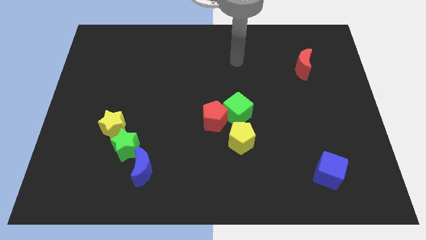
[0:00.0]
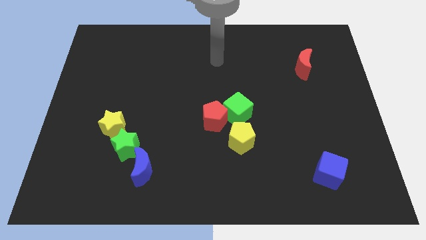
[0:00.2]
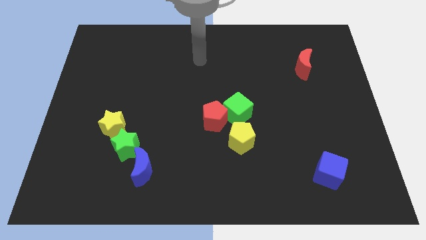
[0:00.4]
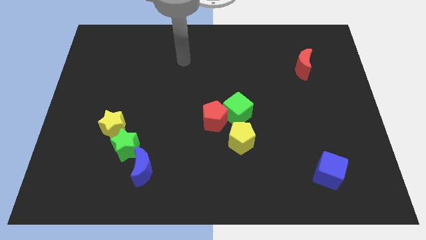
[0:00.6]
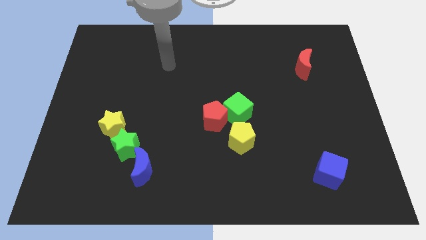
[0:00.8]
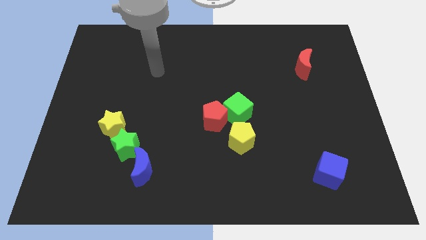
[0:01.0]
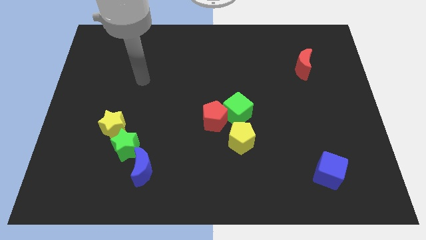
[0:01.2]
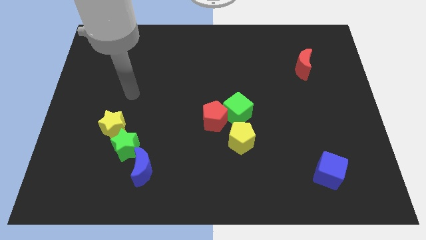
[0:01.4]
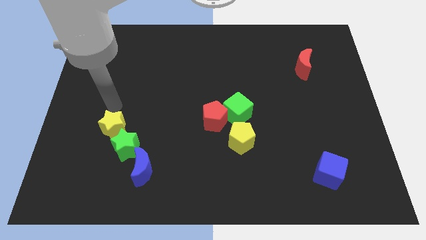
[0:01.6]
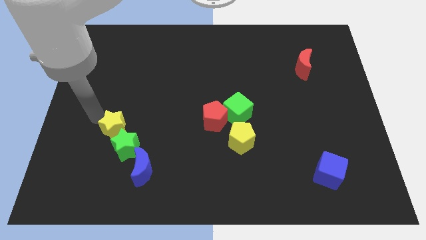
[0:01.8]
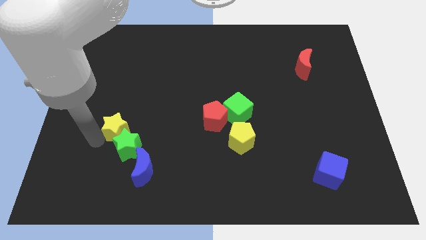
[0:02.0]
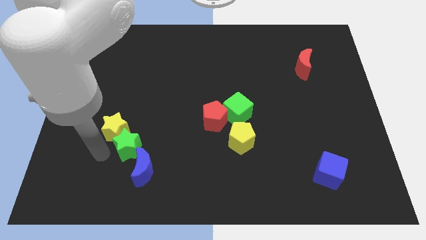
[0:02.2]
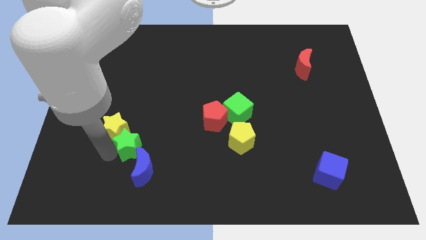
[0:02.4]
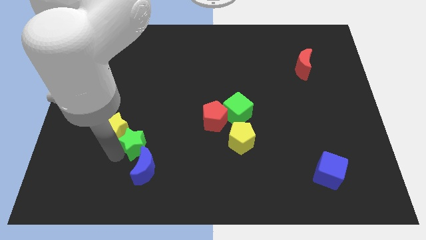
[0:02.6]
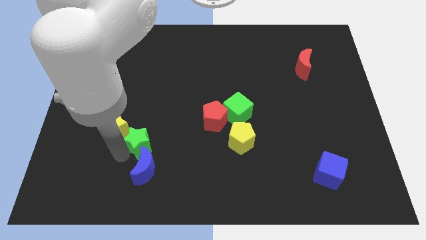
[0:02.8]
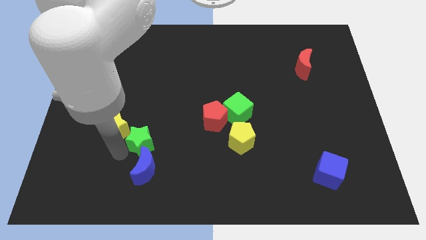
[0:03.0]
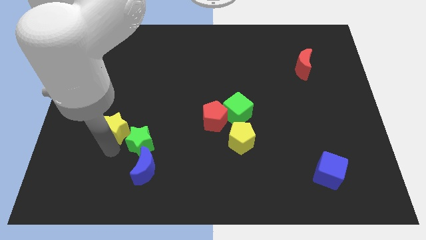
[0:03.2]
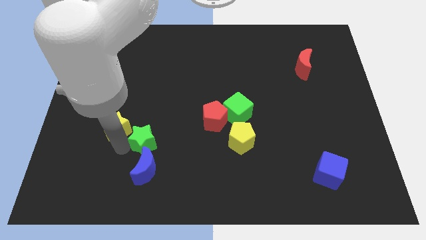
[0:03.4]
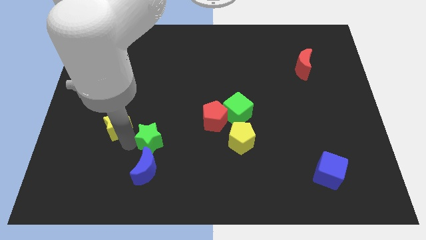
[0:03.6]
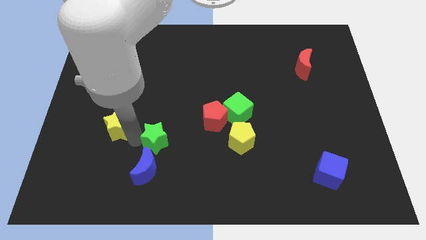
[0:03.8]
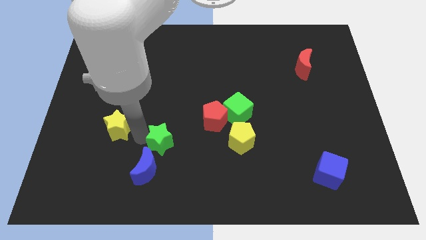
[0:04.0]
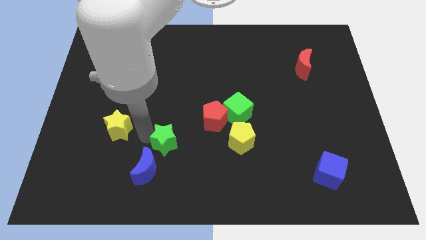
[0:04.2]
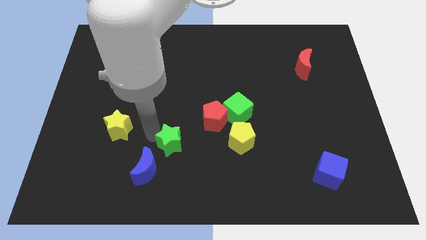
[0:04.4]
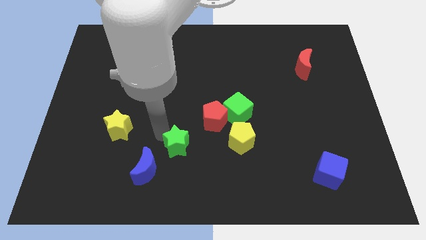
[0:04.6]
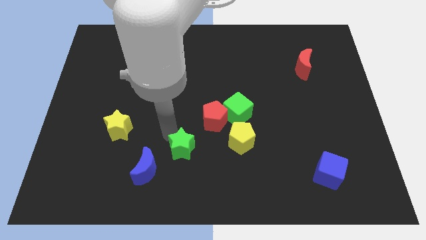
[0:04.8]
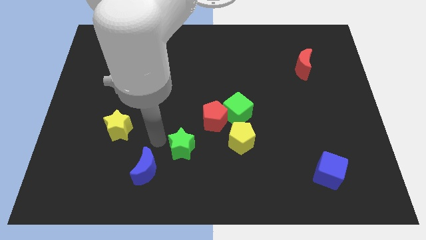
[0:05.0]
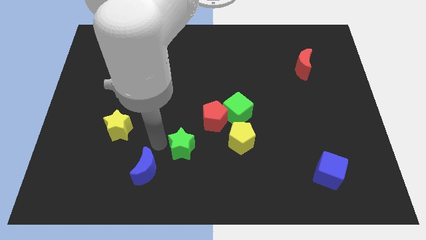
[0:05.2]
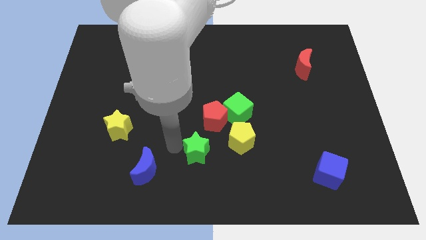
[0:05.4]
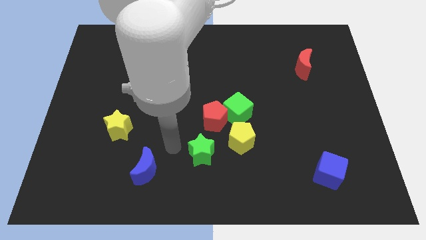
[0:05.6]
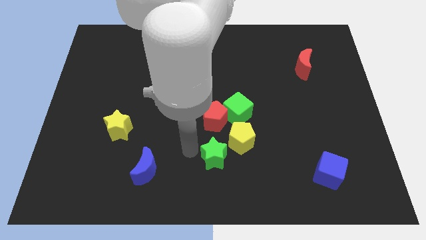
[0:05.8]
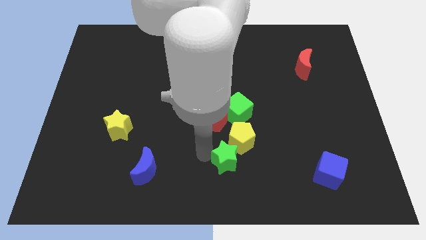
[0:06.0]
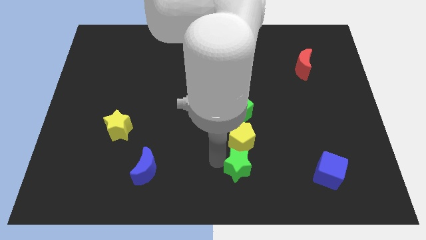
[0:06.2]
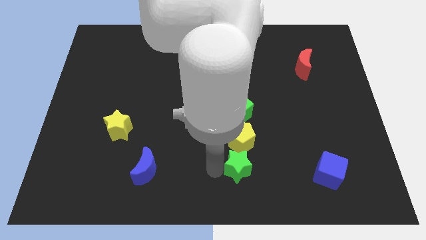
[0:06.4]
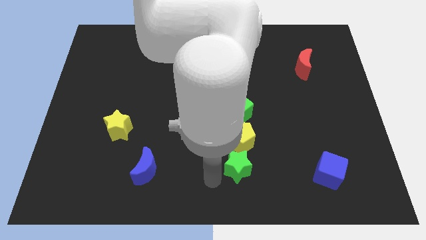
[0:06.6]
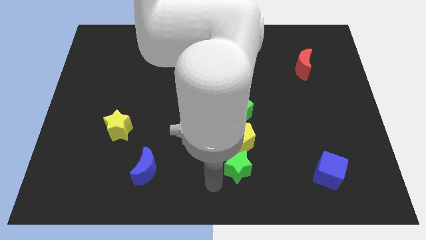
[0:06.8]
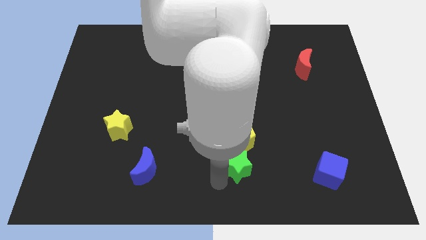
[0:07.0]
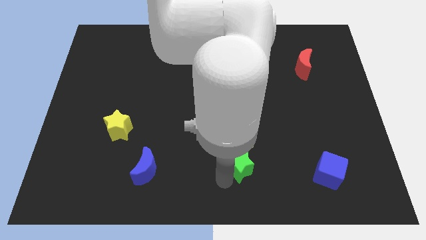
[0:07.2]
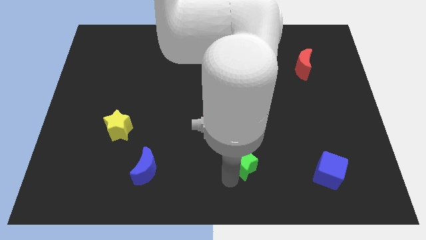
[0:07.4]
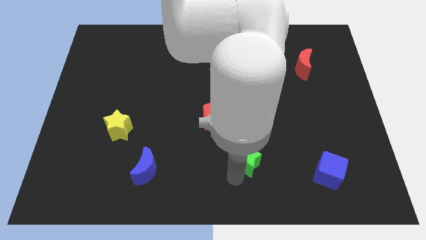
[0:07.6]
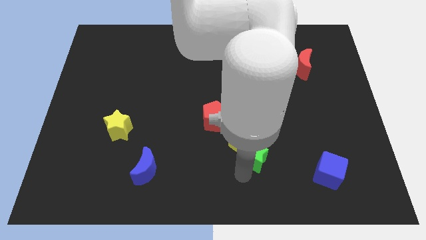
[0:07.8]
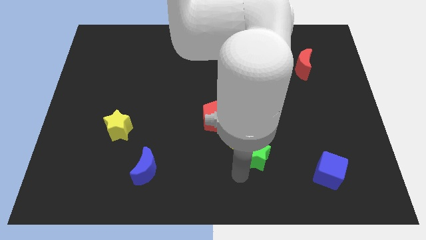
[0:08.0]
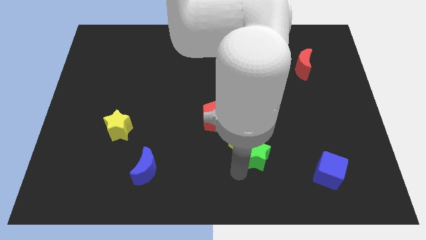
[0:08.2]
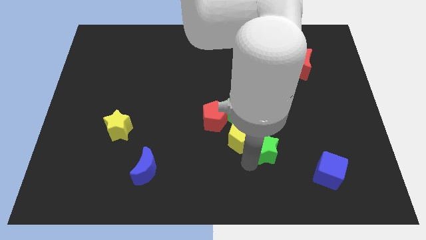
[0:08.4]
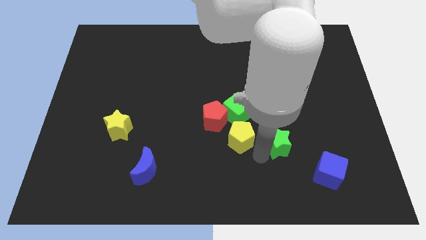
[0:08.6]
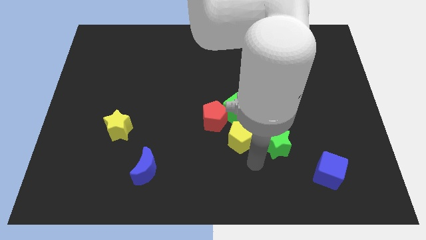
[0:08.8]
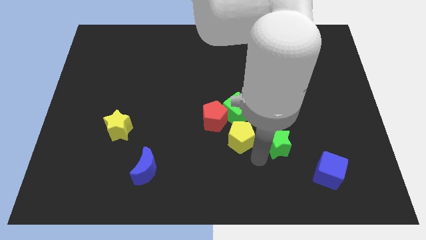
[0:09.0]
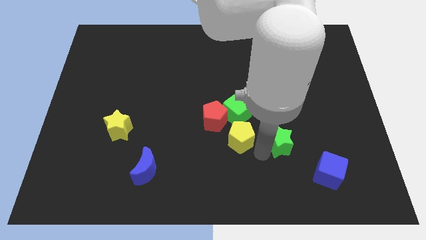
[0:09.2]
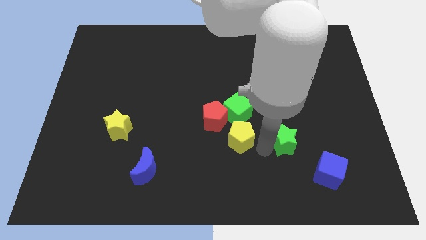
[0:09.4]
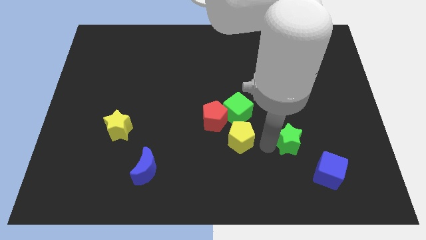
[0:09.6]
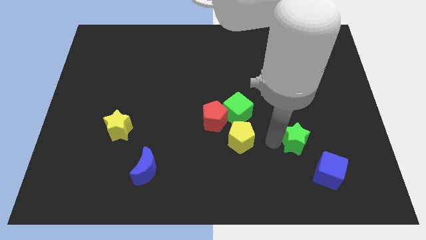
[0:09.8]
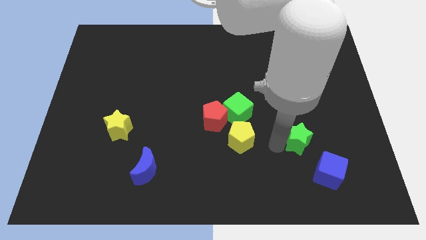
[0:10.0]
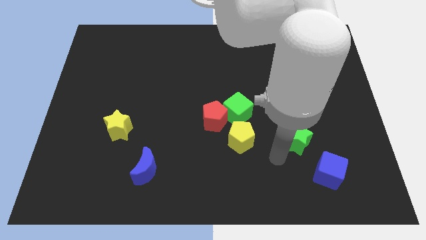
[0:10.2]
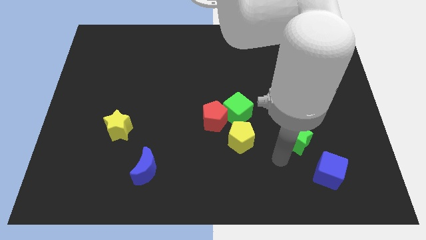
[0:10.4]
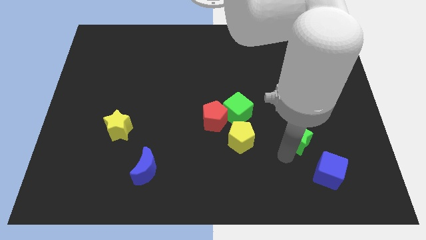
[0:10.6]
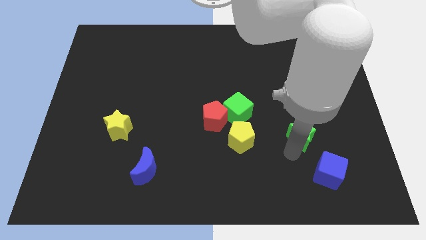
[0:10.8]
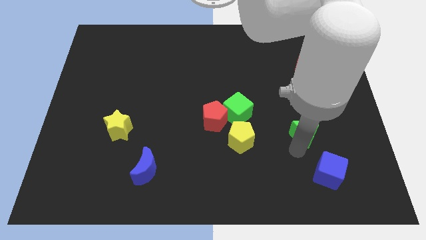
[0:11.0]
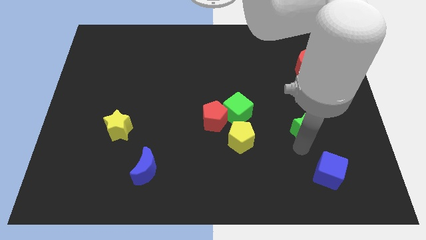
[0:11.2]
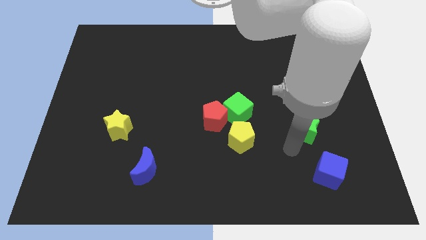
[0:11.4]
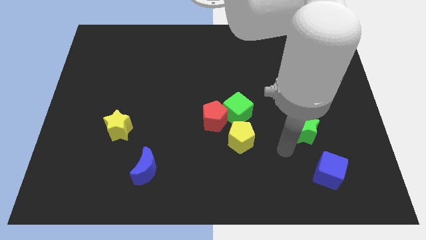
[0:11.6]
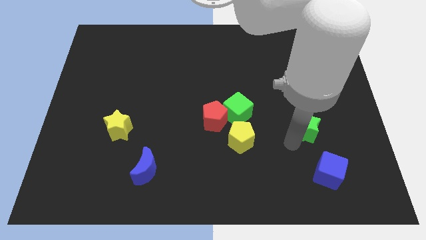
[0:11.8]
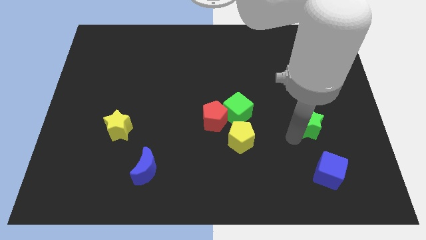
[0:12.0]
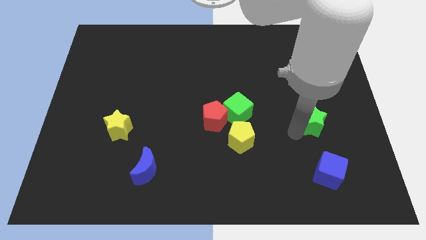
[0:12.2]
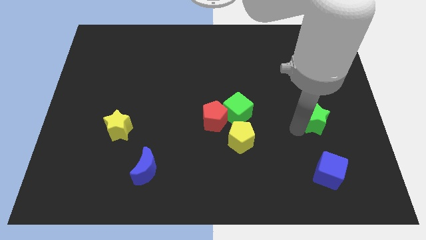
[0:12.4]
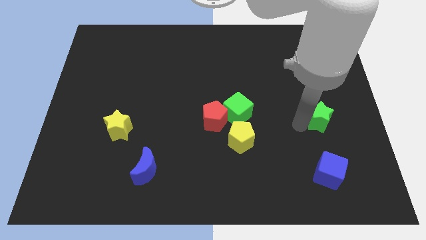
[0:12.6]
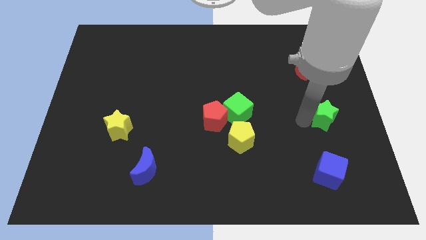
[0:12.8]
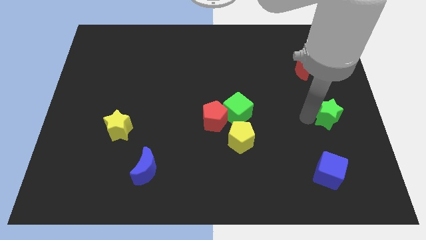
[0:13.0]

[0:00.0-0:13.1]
push the green star to the right side
